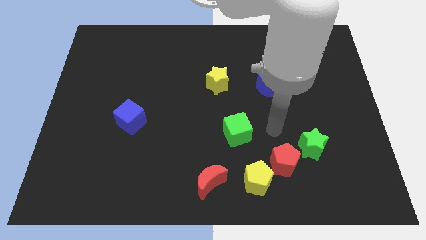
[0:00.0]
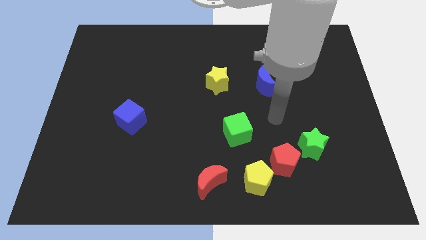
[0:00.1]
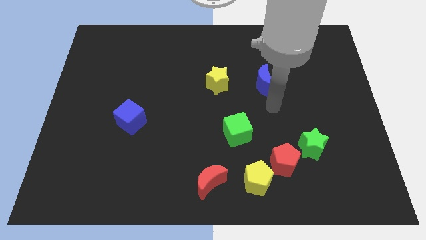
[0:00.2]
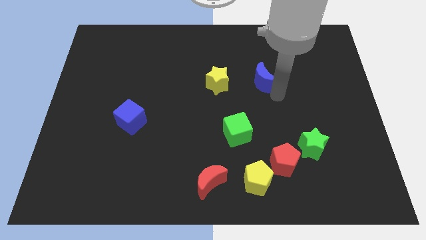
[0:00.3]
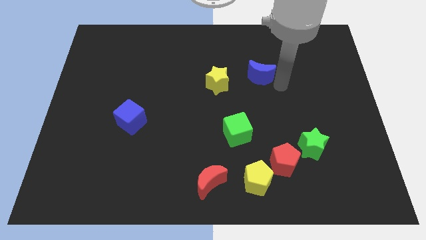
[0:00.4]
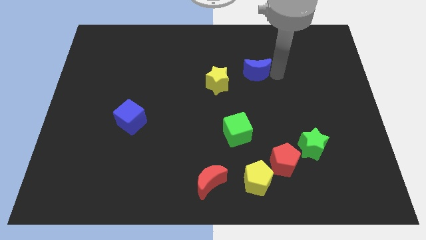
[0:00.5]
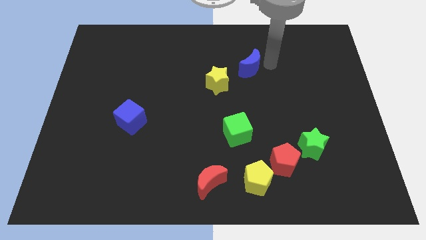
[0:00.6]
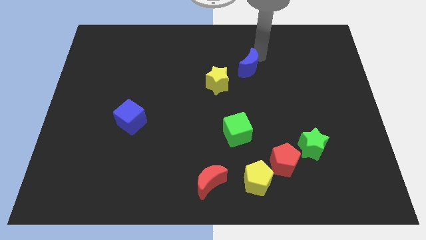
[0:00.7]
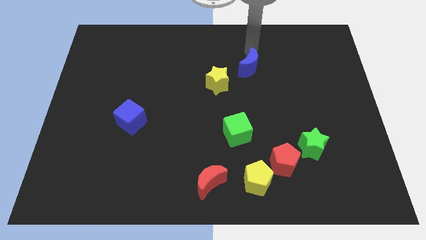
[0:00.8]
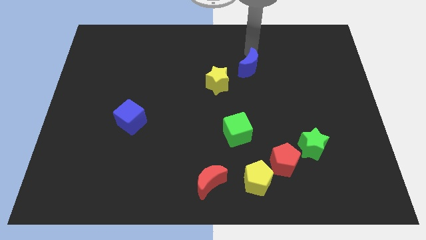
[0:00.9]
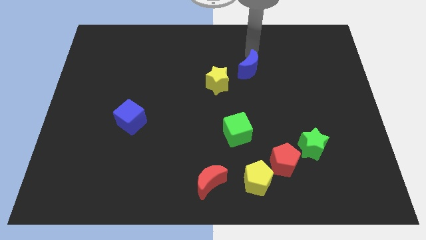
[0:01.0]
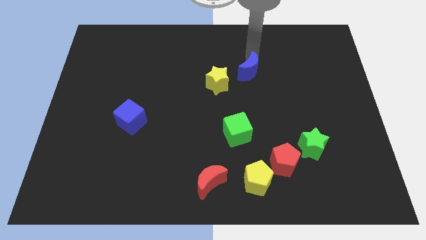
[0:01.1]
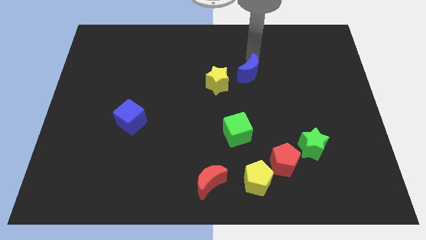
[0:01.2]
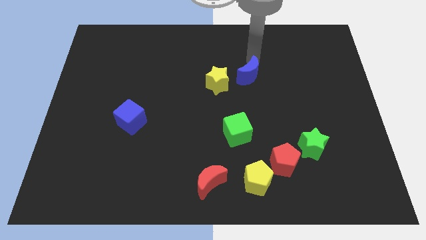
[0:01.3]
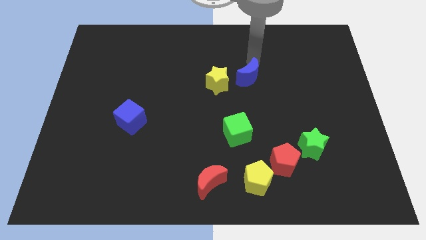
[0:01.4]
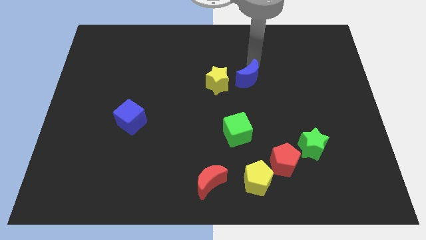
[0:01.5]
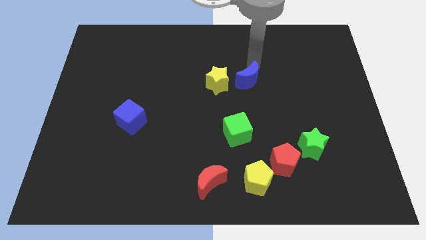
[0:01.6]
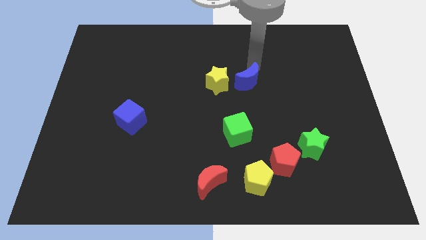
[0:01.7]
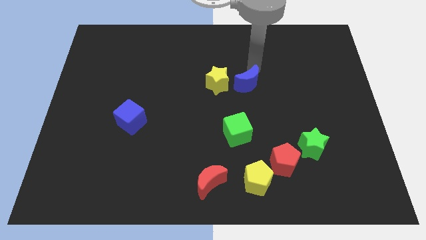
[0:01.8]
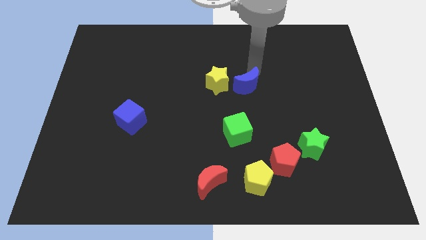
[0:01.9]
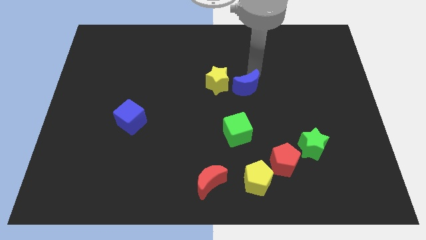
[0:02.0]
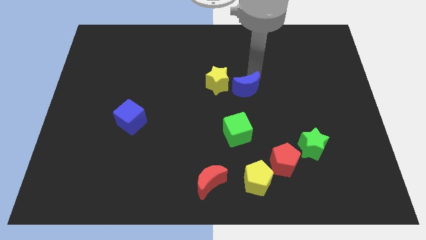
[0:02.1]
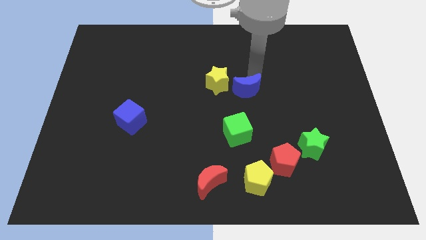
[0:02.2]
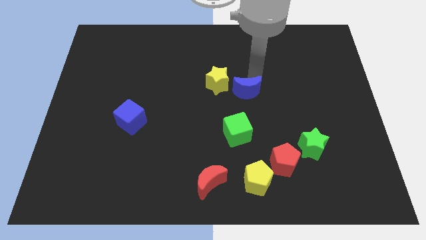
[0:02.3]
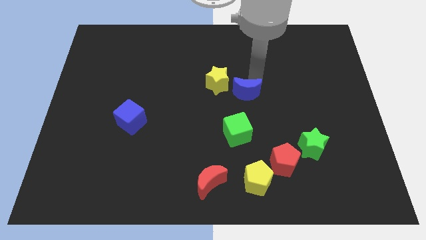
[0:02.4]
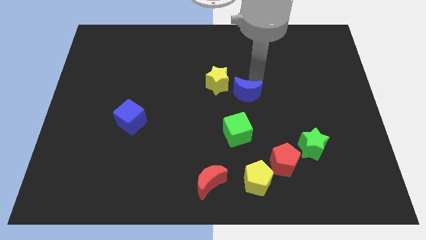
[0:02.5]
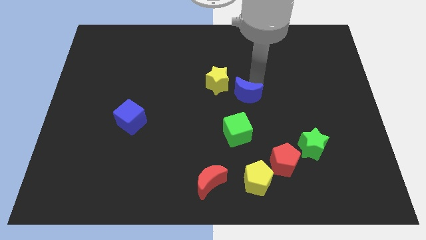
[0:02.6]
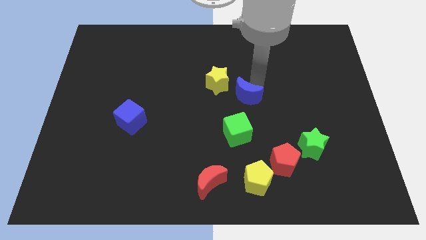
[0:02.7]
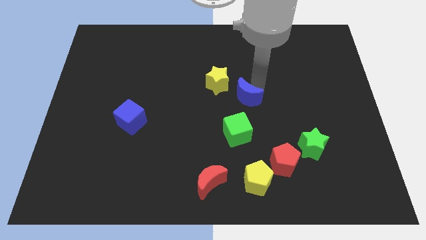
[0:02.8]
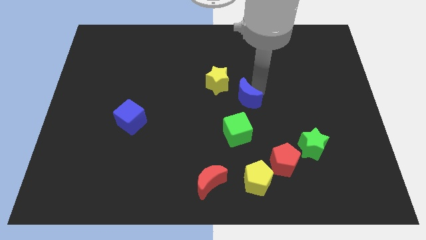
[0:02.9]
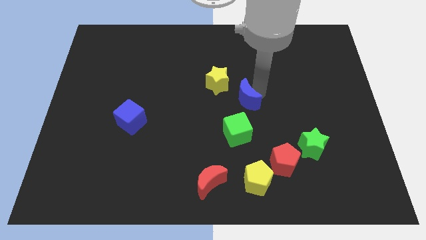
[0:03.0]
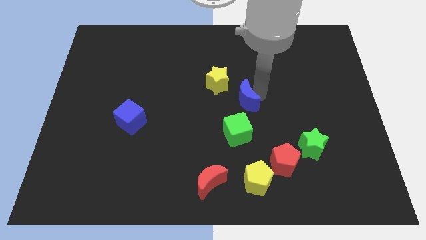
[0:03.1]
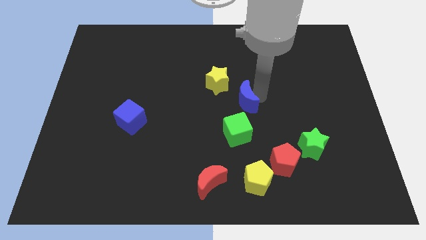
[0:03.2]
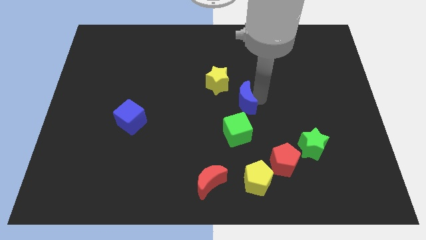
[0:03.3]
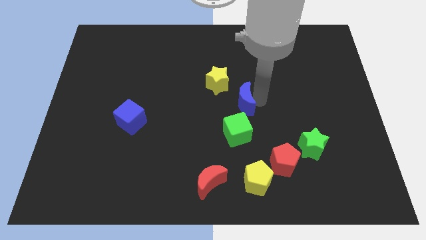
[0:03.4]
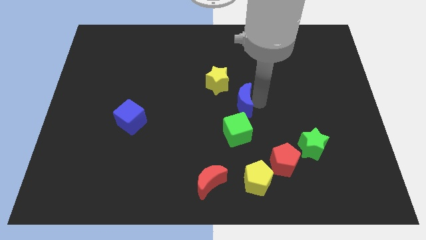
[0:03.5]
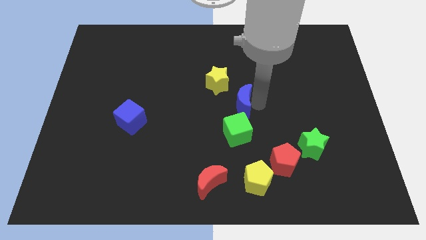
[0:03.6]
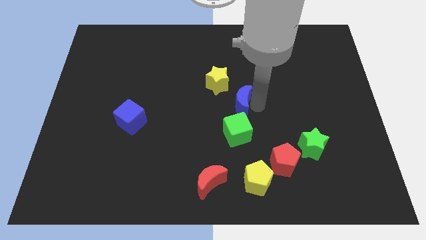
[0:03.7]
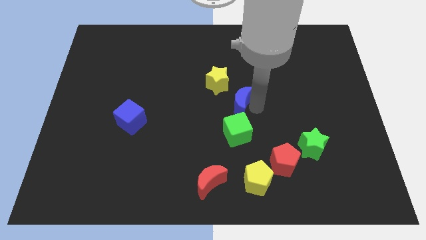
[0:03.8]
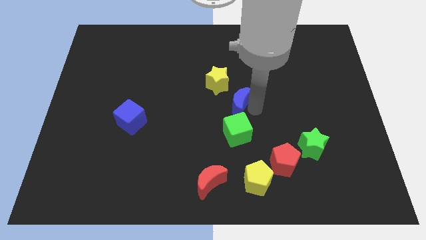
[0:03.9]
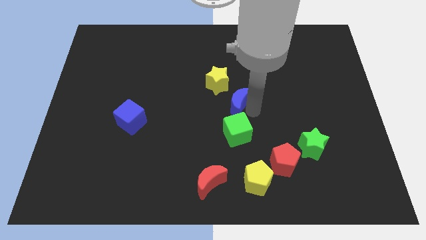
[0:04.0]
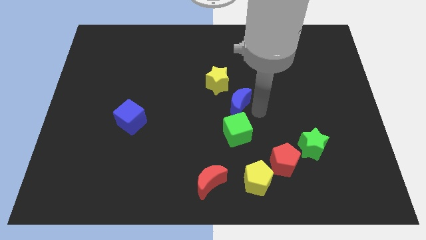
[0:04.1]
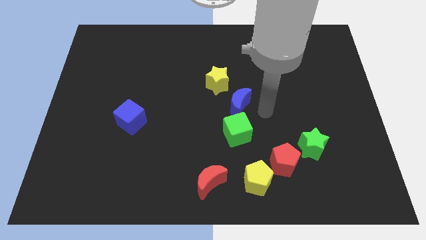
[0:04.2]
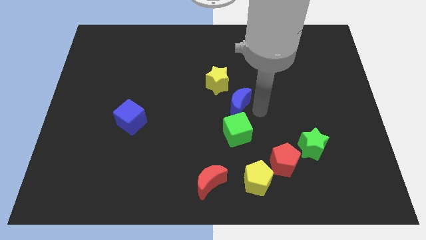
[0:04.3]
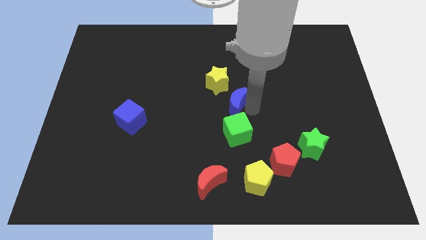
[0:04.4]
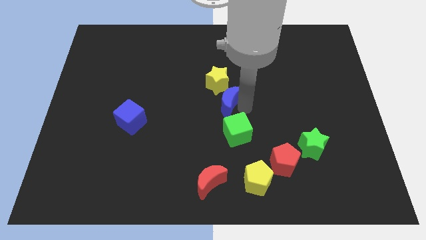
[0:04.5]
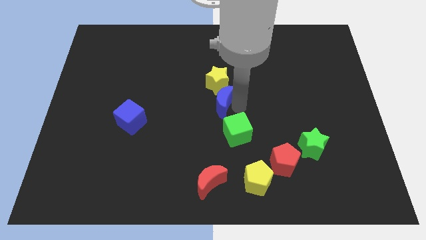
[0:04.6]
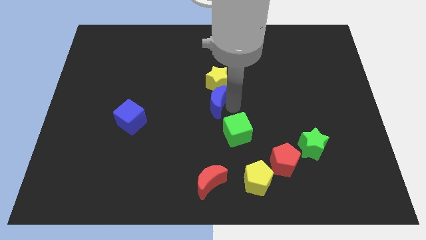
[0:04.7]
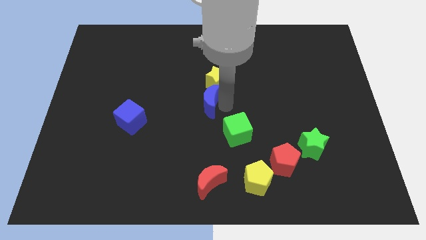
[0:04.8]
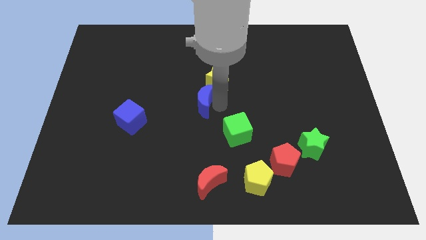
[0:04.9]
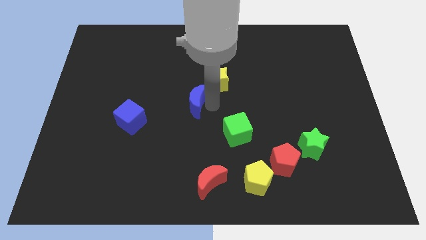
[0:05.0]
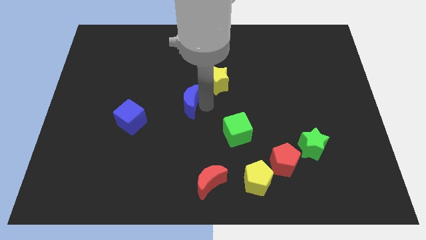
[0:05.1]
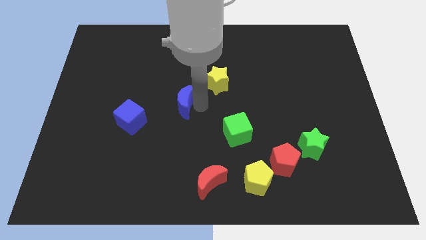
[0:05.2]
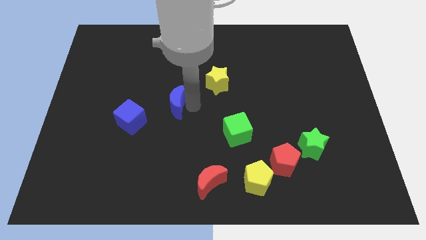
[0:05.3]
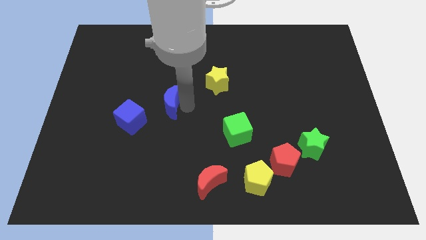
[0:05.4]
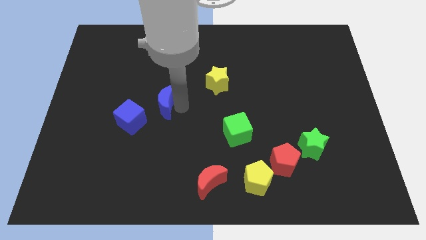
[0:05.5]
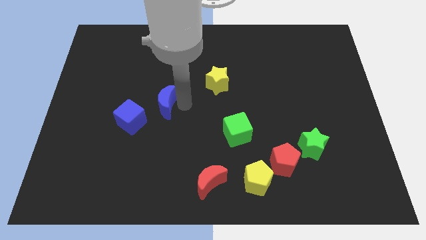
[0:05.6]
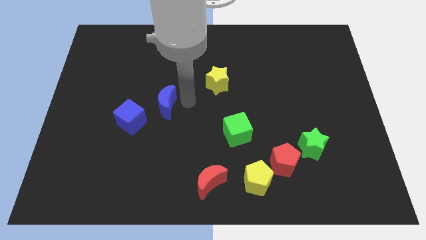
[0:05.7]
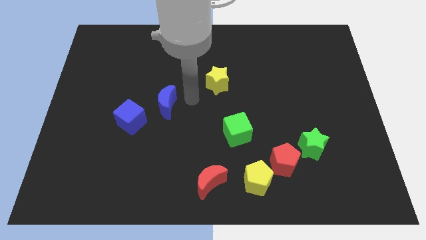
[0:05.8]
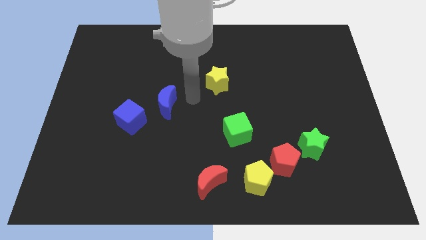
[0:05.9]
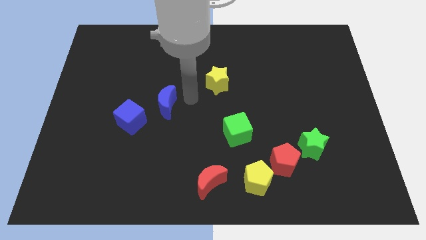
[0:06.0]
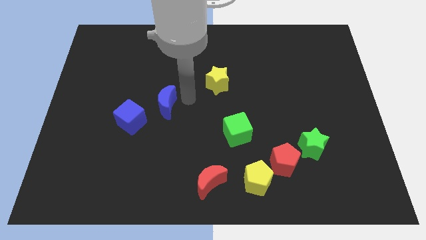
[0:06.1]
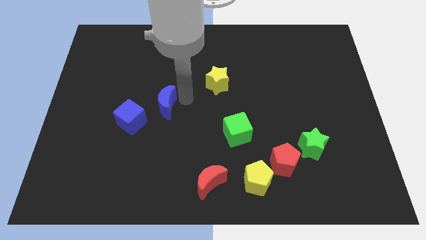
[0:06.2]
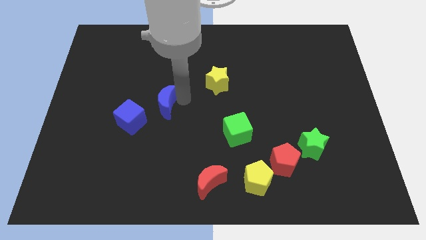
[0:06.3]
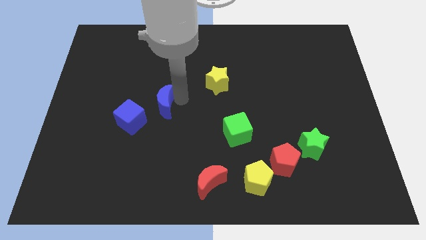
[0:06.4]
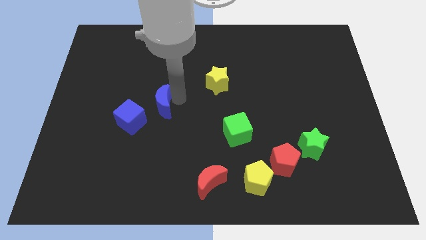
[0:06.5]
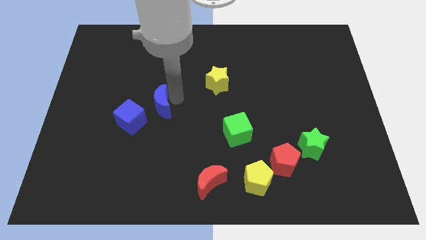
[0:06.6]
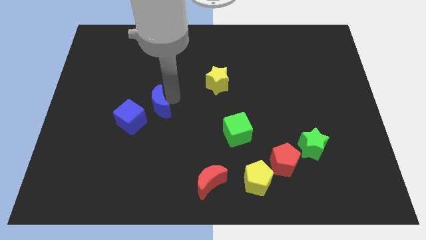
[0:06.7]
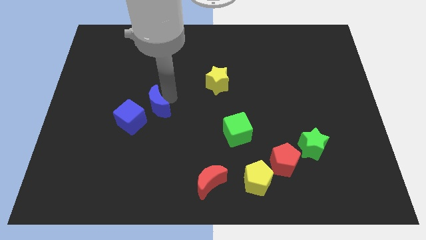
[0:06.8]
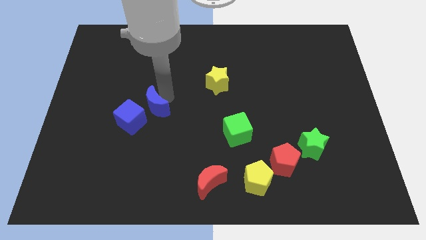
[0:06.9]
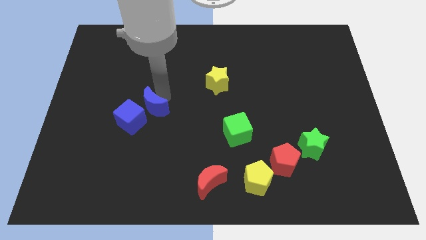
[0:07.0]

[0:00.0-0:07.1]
move the blue moon towards the blue cube
